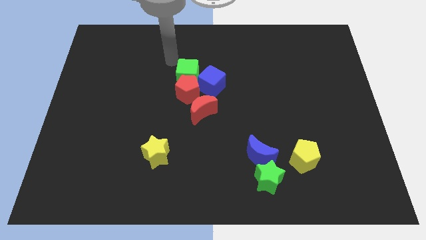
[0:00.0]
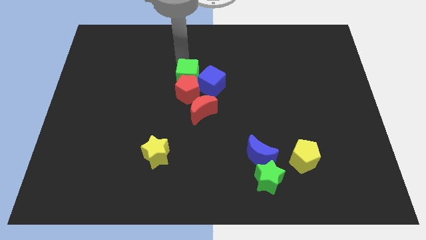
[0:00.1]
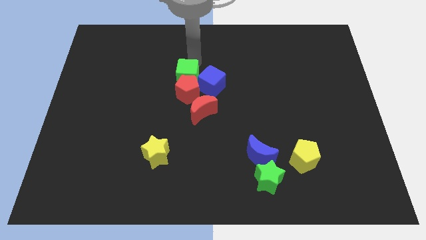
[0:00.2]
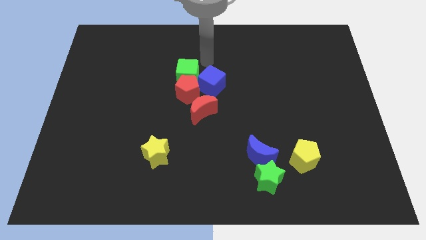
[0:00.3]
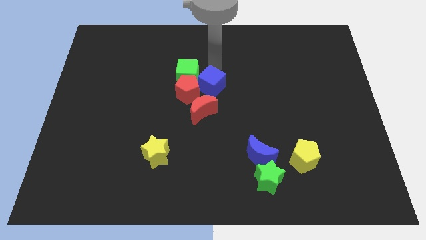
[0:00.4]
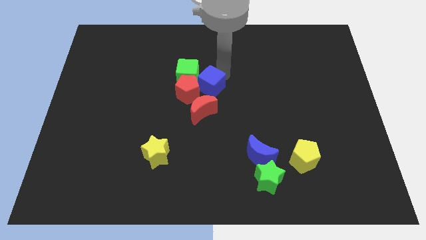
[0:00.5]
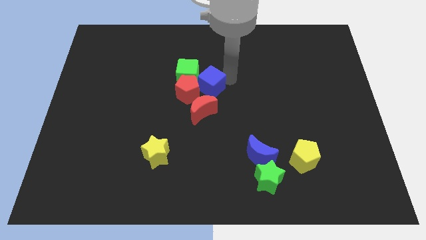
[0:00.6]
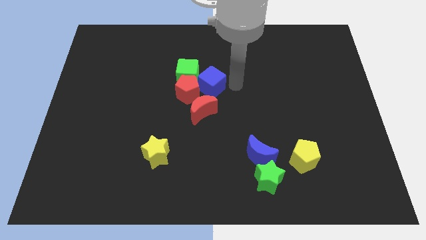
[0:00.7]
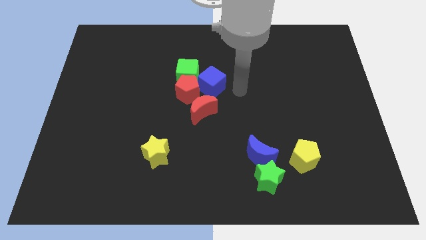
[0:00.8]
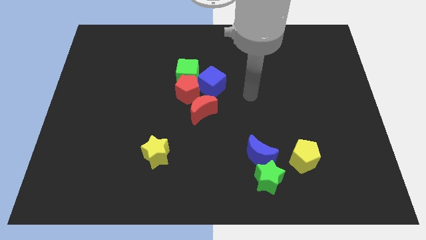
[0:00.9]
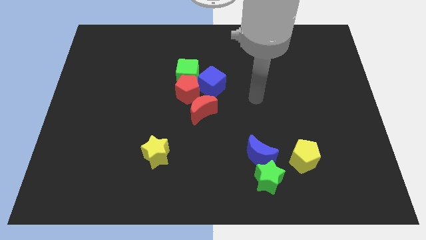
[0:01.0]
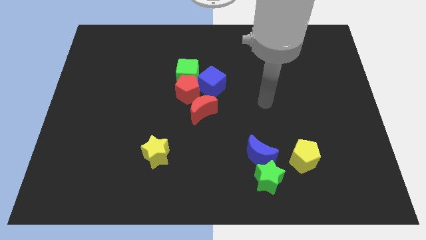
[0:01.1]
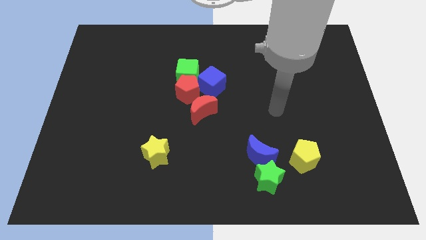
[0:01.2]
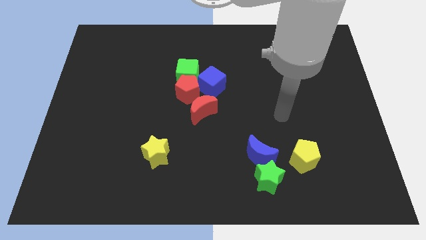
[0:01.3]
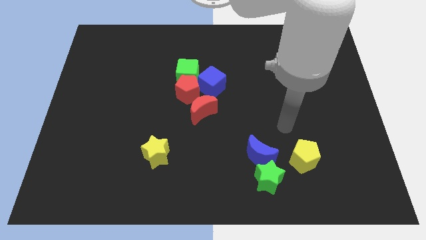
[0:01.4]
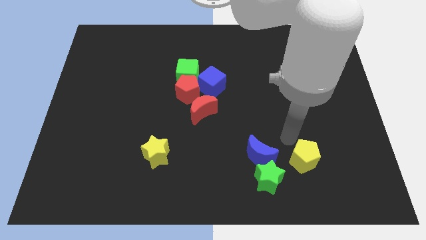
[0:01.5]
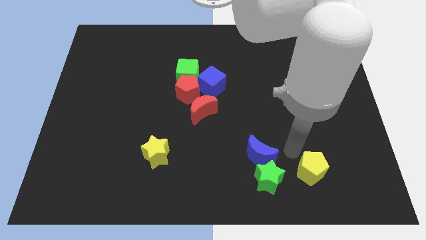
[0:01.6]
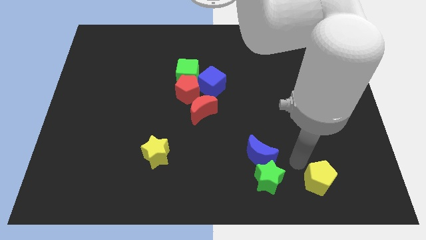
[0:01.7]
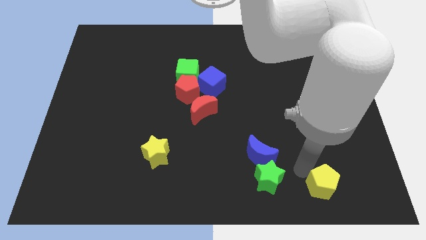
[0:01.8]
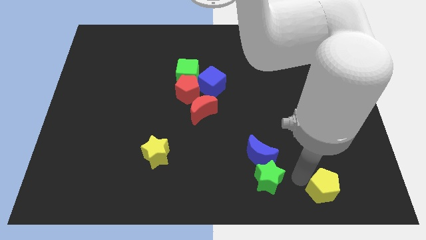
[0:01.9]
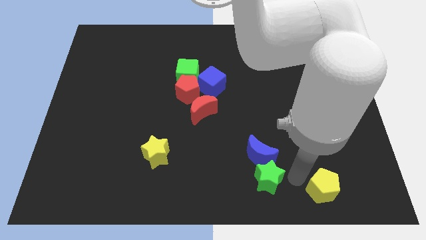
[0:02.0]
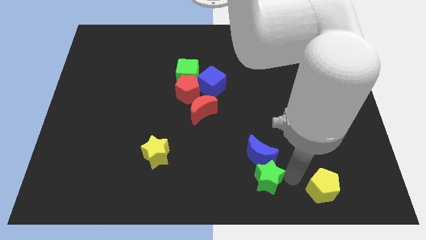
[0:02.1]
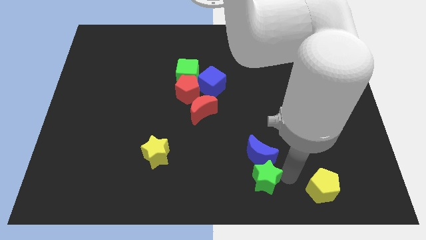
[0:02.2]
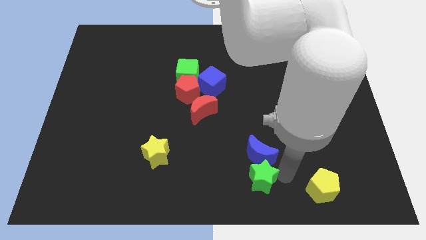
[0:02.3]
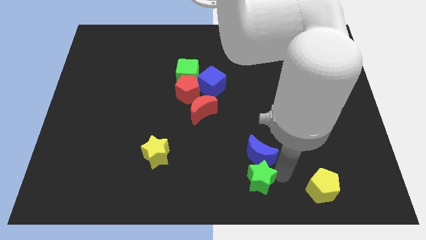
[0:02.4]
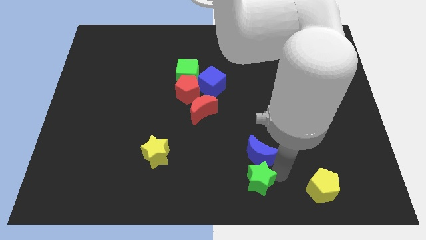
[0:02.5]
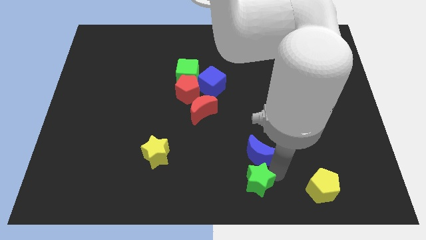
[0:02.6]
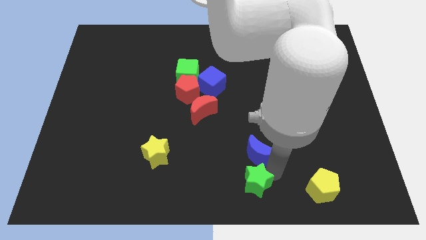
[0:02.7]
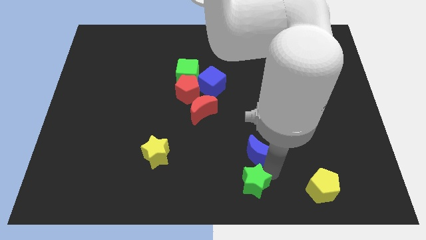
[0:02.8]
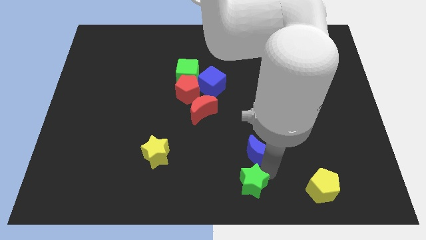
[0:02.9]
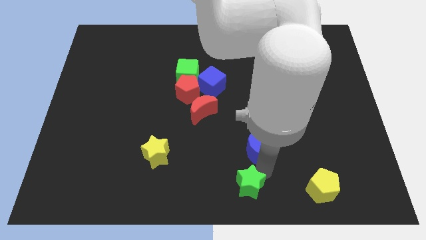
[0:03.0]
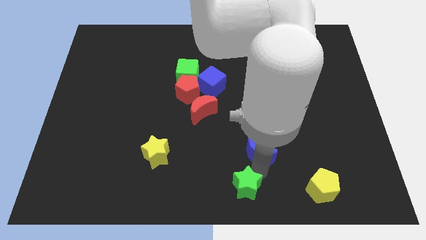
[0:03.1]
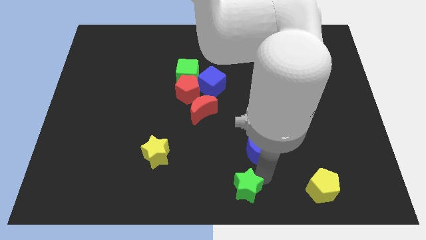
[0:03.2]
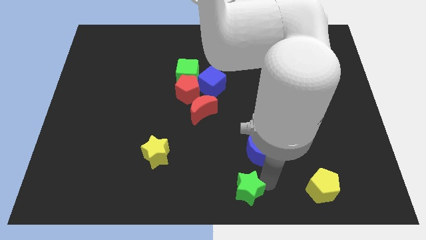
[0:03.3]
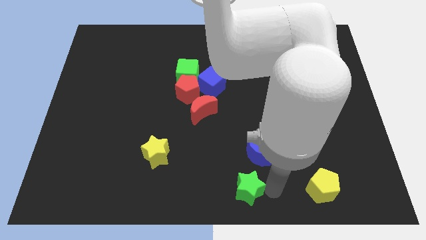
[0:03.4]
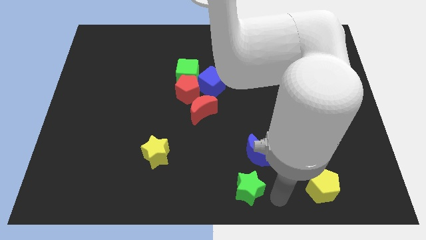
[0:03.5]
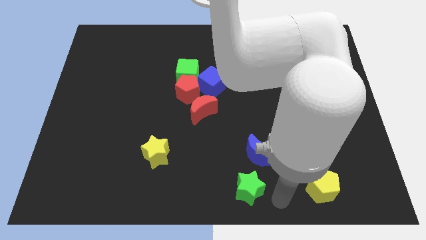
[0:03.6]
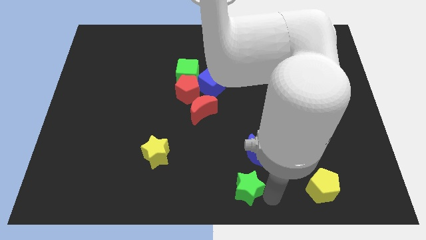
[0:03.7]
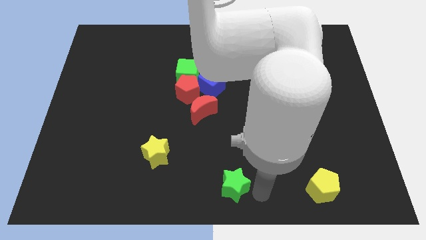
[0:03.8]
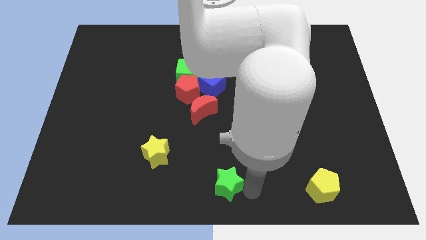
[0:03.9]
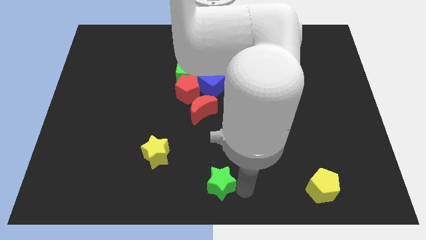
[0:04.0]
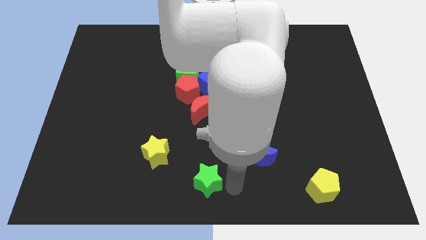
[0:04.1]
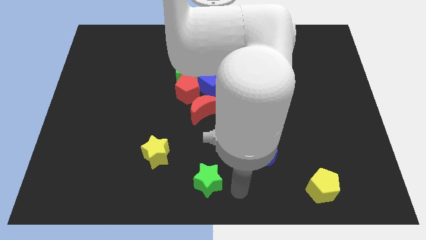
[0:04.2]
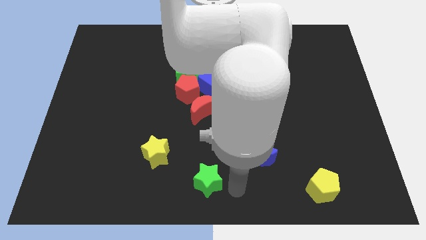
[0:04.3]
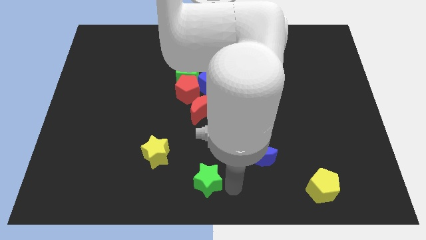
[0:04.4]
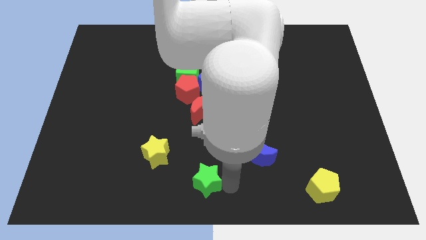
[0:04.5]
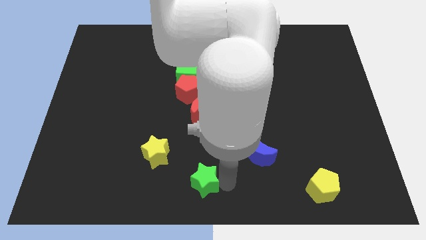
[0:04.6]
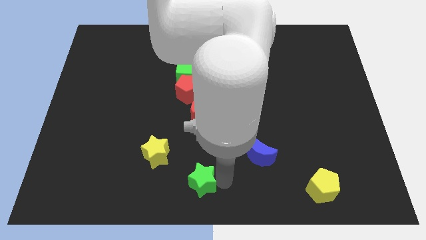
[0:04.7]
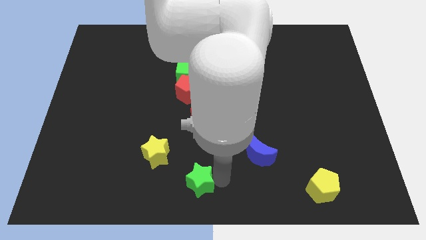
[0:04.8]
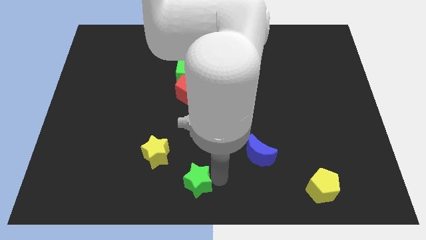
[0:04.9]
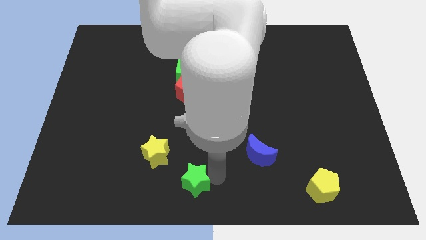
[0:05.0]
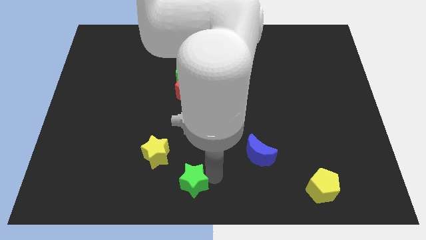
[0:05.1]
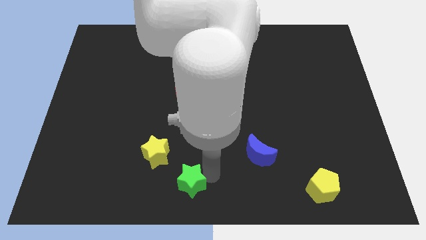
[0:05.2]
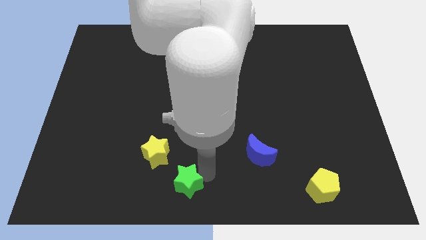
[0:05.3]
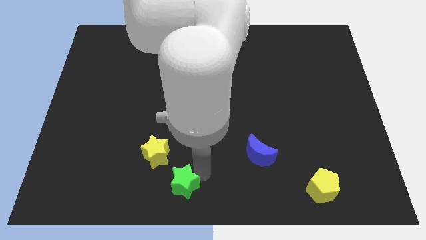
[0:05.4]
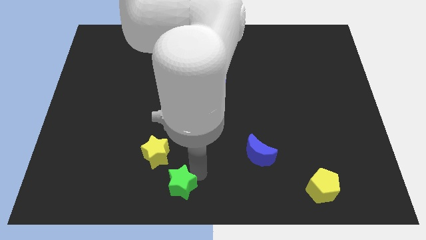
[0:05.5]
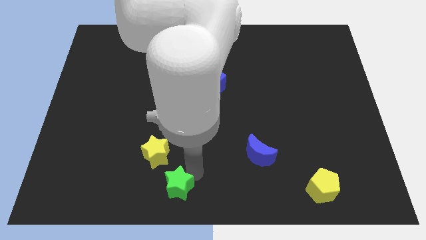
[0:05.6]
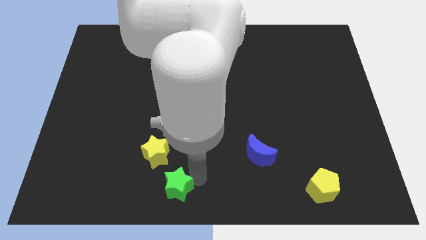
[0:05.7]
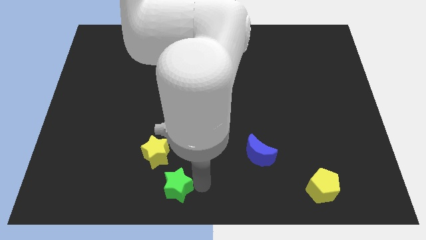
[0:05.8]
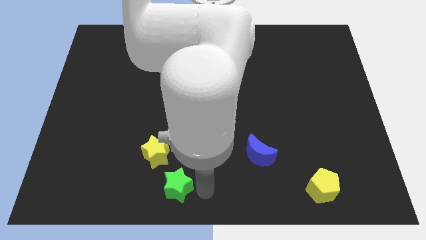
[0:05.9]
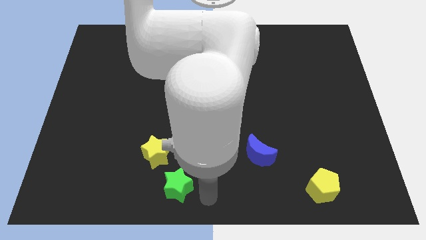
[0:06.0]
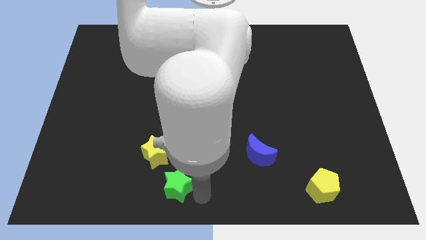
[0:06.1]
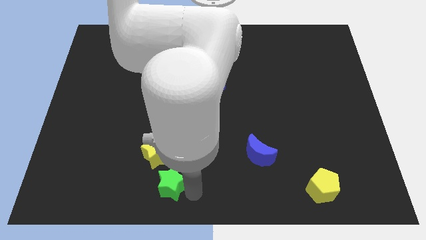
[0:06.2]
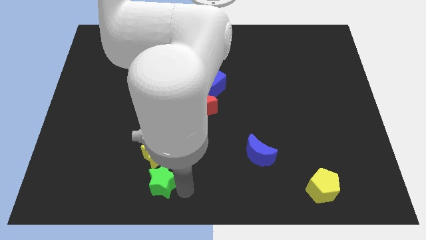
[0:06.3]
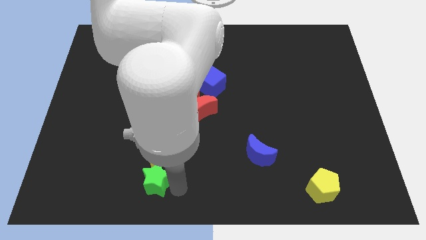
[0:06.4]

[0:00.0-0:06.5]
put the green star diagonally down and to the left of the yellow star

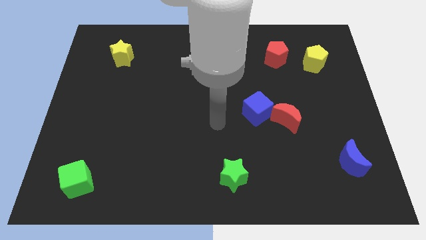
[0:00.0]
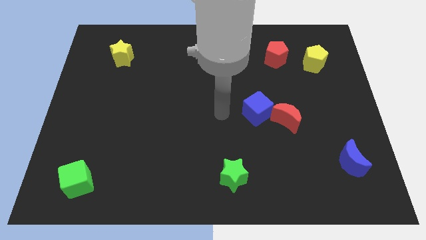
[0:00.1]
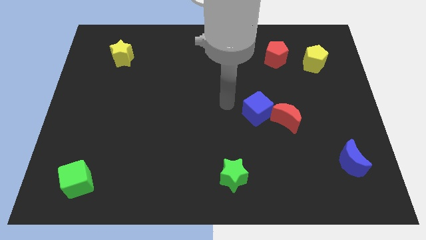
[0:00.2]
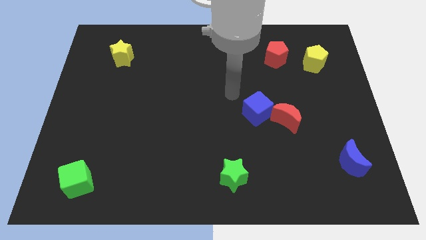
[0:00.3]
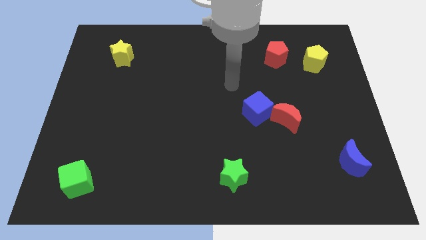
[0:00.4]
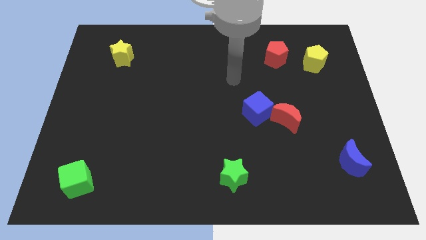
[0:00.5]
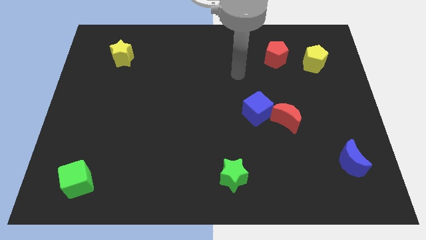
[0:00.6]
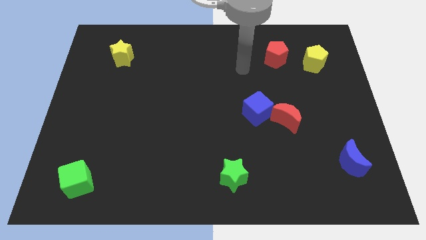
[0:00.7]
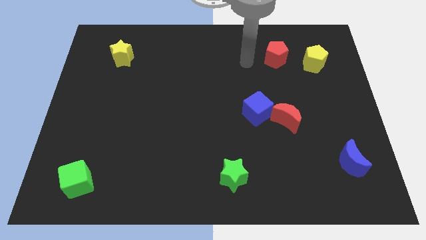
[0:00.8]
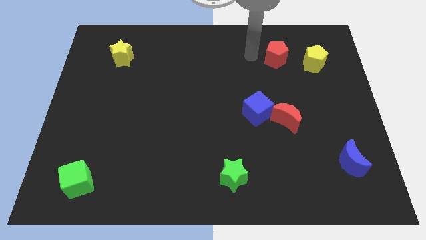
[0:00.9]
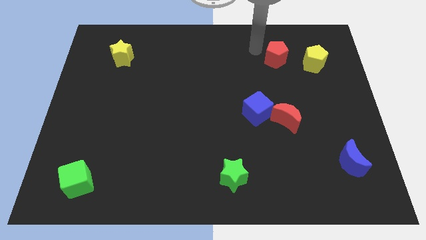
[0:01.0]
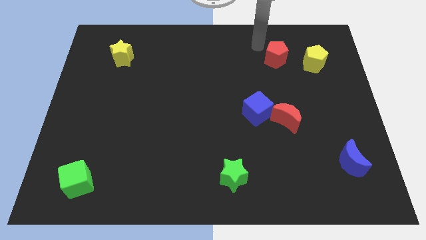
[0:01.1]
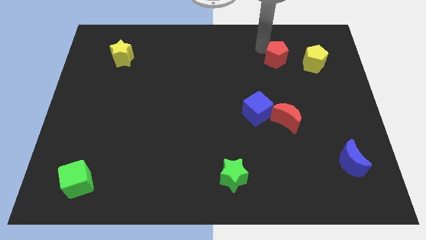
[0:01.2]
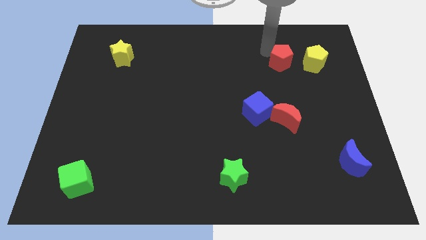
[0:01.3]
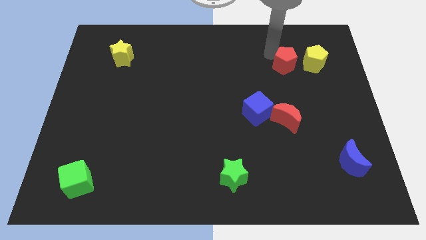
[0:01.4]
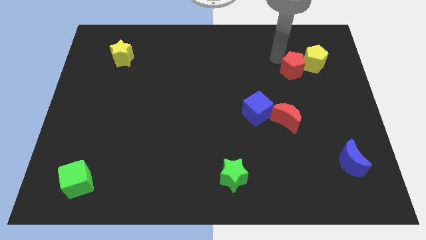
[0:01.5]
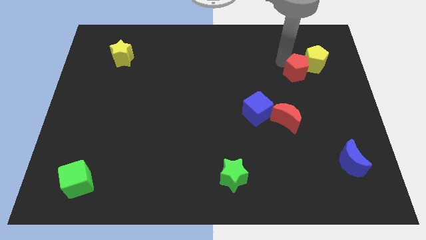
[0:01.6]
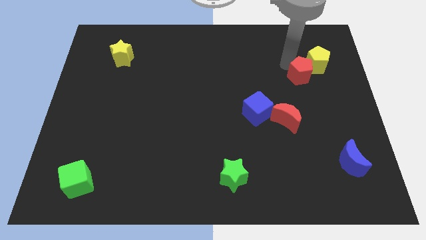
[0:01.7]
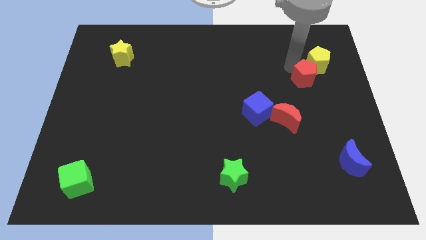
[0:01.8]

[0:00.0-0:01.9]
move the red pentagon to the bottom side of the yellow pentagon

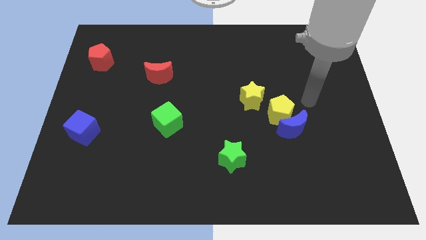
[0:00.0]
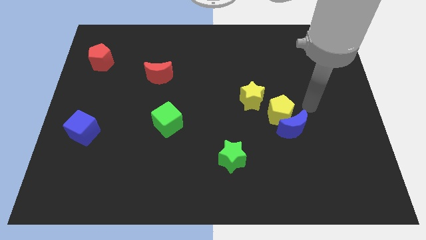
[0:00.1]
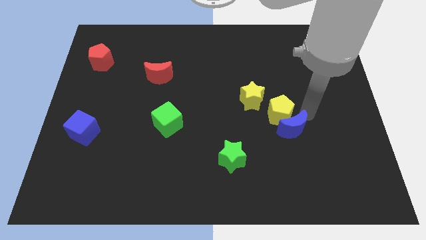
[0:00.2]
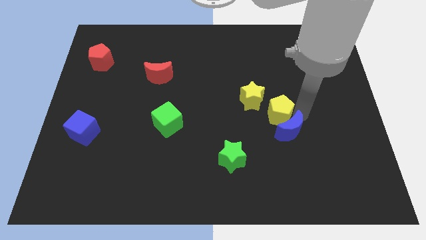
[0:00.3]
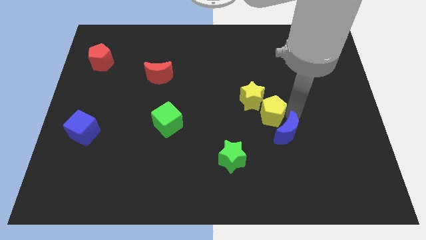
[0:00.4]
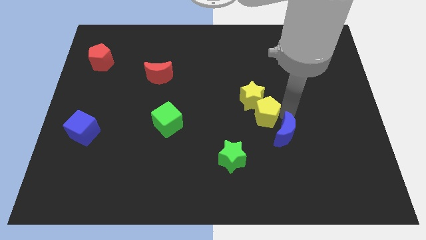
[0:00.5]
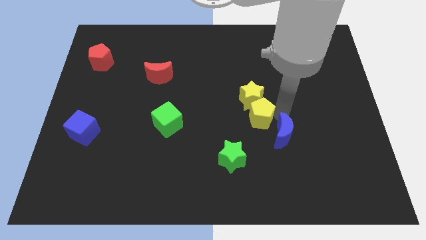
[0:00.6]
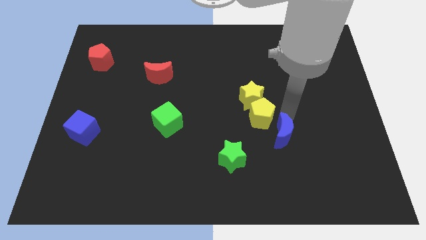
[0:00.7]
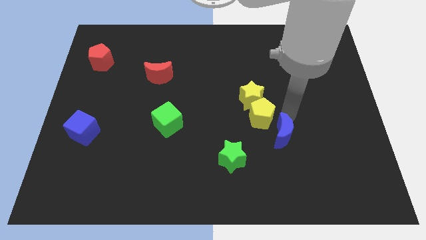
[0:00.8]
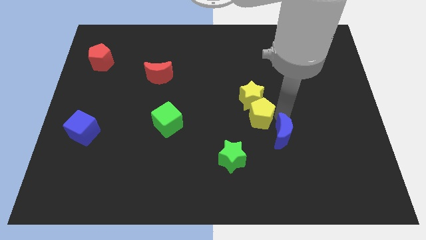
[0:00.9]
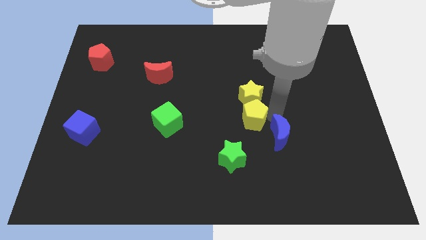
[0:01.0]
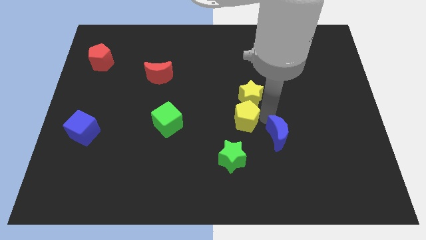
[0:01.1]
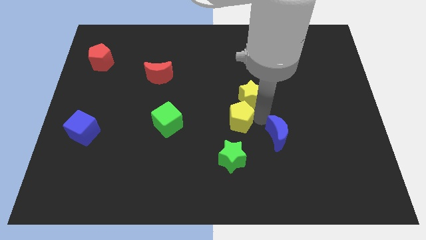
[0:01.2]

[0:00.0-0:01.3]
put the yellow pentagon to the right side of the green cube
